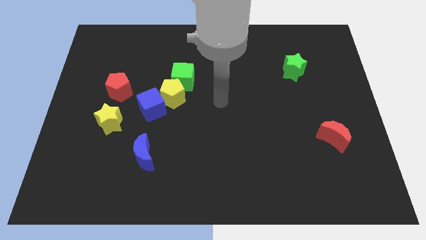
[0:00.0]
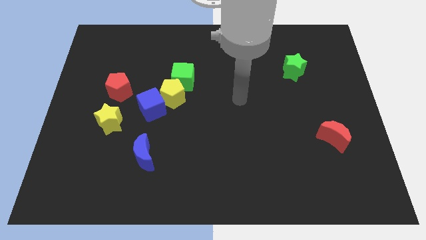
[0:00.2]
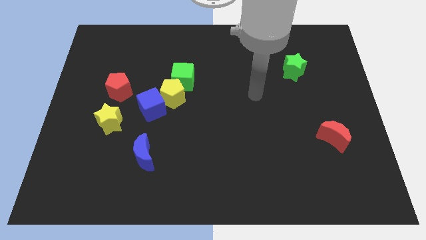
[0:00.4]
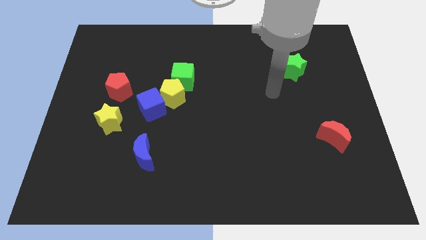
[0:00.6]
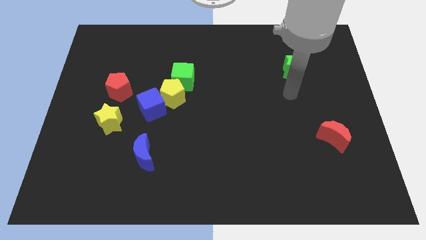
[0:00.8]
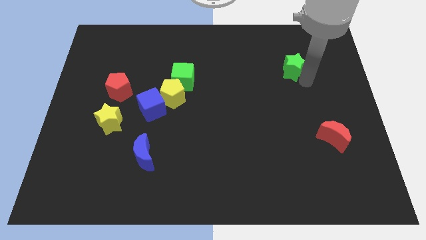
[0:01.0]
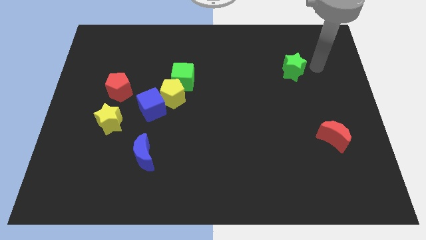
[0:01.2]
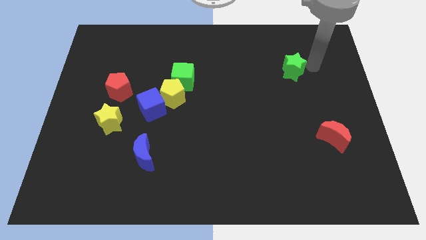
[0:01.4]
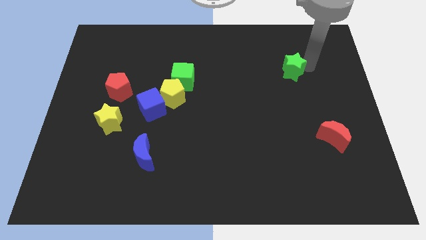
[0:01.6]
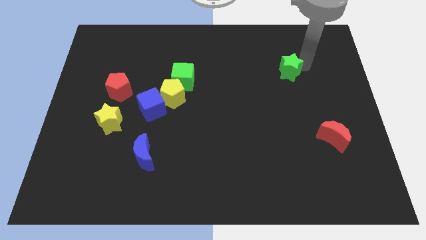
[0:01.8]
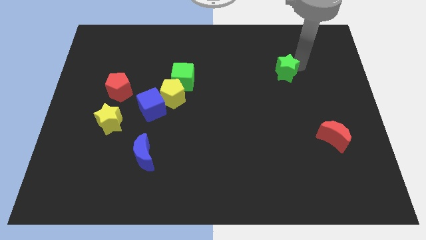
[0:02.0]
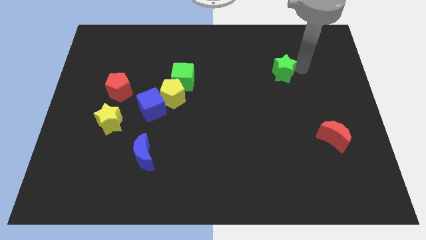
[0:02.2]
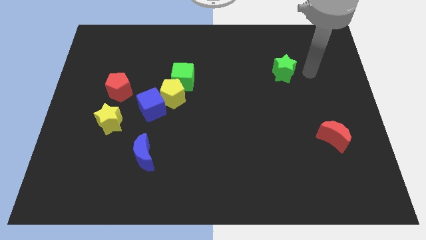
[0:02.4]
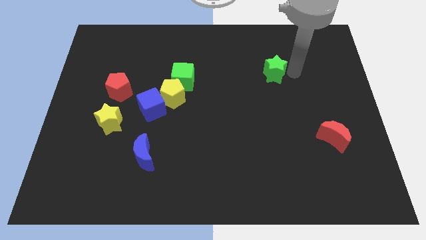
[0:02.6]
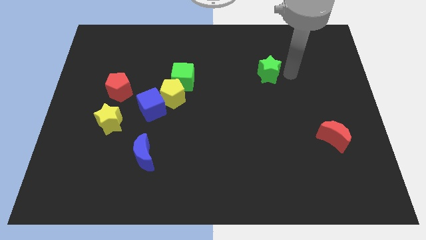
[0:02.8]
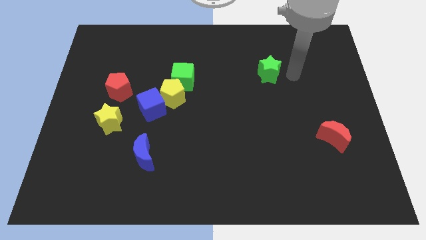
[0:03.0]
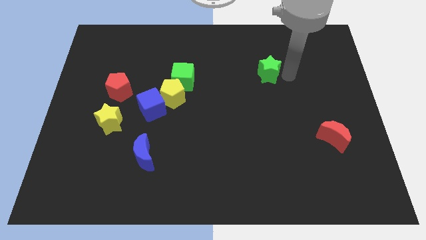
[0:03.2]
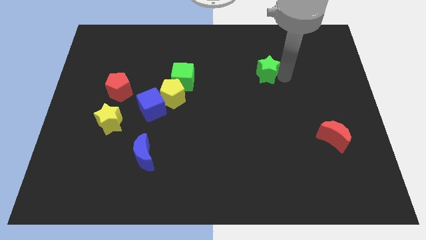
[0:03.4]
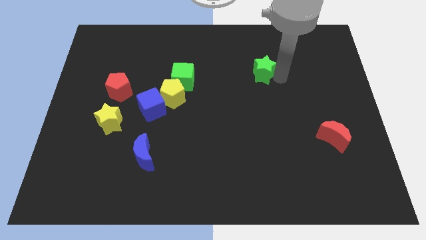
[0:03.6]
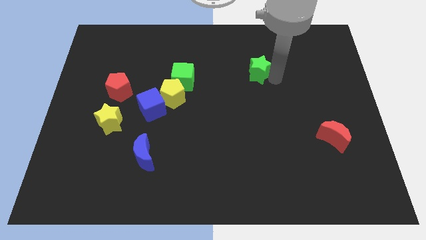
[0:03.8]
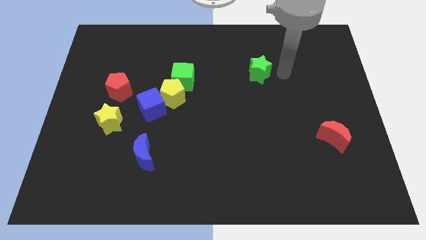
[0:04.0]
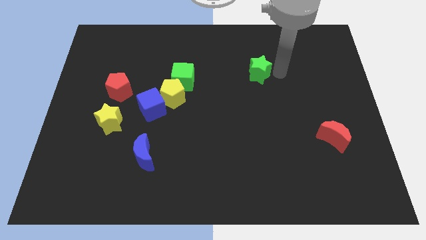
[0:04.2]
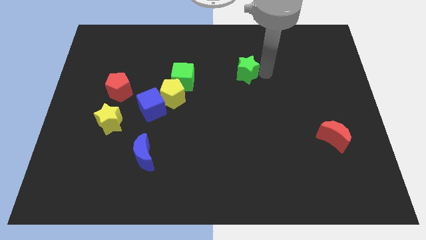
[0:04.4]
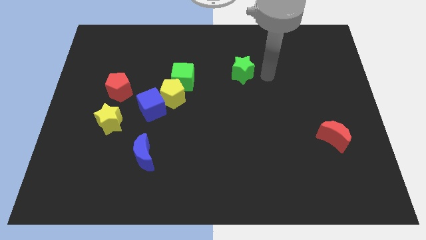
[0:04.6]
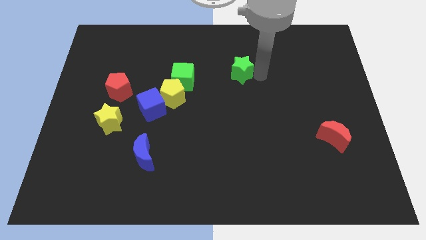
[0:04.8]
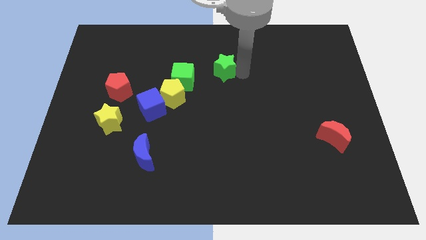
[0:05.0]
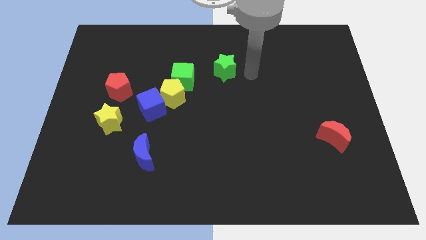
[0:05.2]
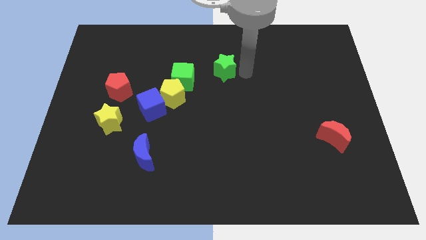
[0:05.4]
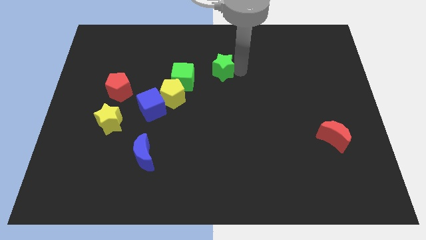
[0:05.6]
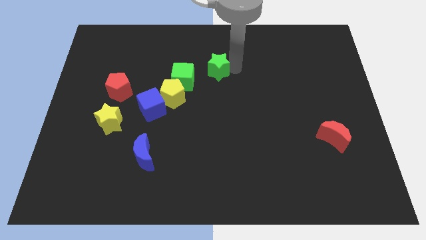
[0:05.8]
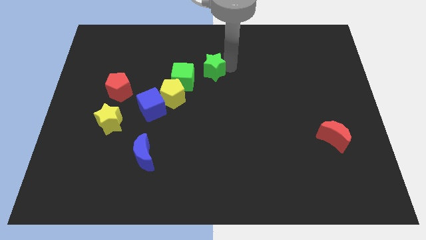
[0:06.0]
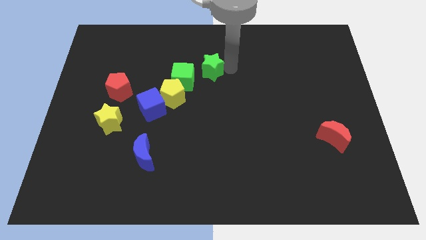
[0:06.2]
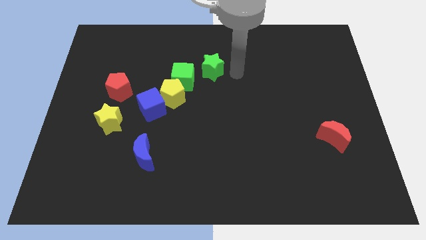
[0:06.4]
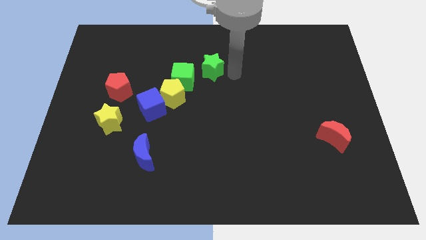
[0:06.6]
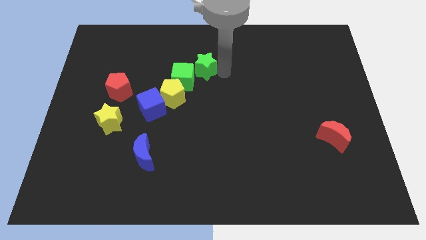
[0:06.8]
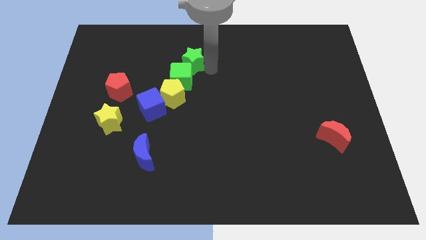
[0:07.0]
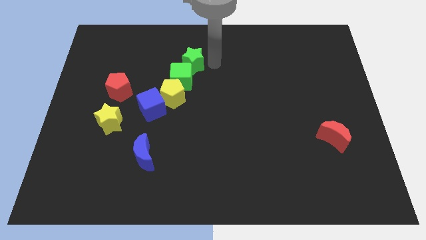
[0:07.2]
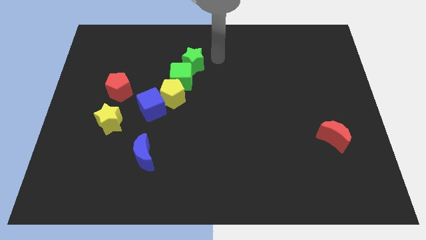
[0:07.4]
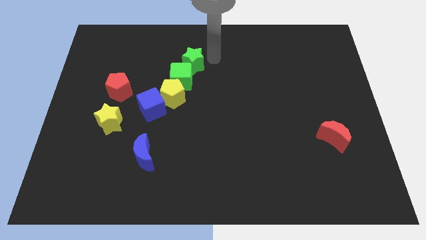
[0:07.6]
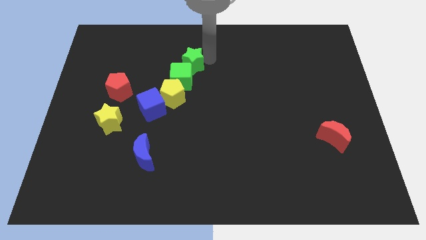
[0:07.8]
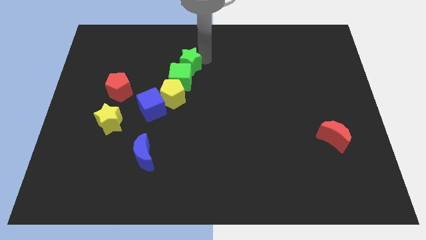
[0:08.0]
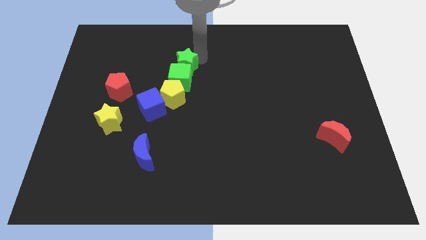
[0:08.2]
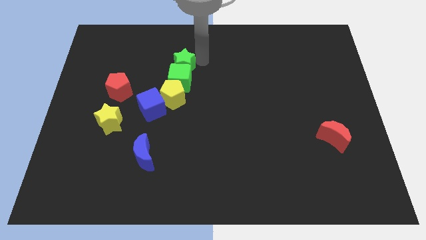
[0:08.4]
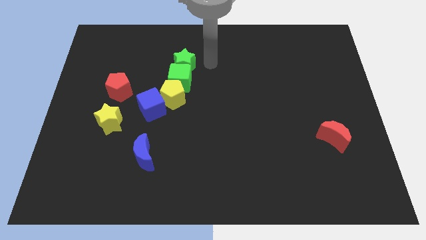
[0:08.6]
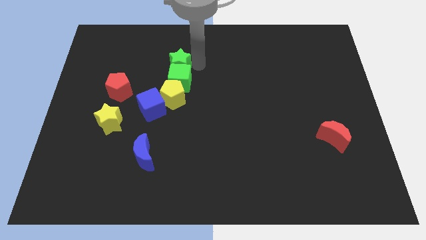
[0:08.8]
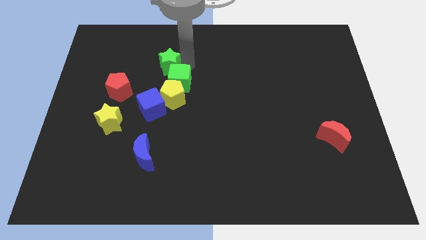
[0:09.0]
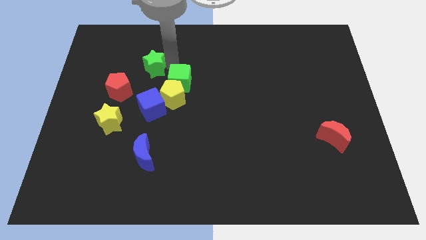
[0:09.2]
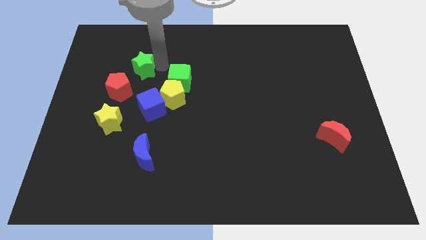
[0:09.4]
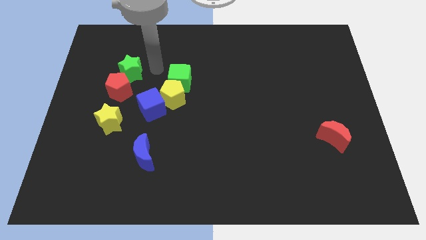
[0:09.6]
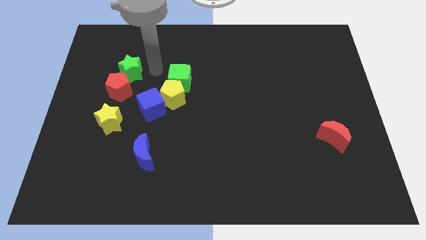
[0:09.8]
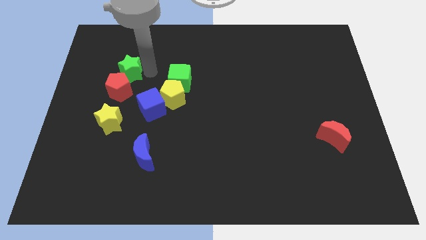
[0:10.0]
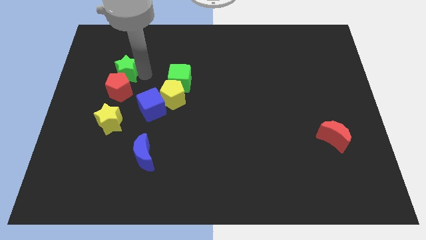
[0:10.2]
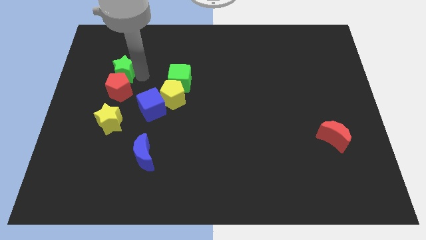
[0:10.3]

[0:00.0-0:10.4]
push the green star to the top left side of the red pentagon
